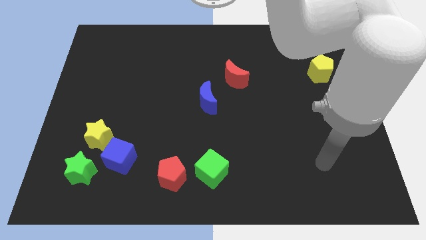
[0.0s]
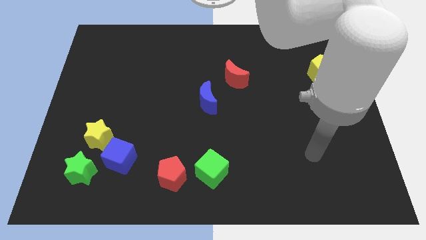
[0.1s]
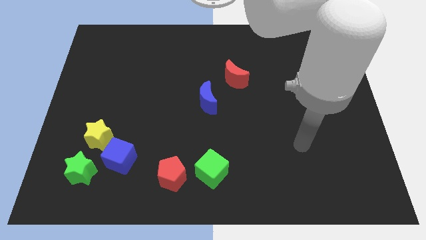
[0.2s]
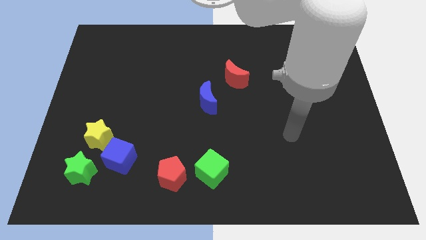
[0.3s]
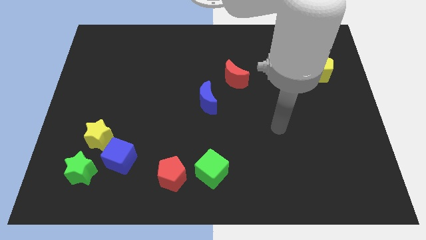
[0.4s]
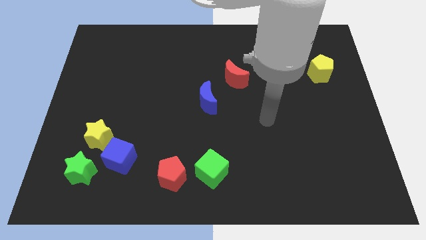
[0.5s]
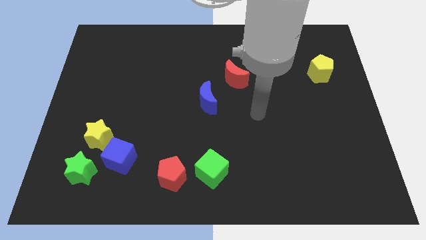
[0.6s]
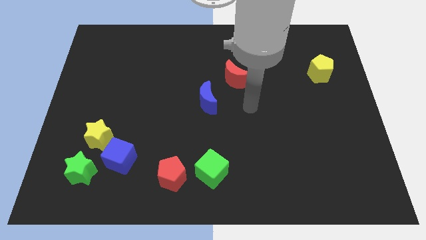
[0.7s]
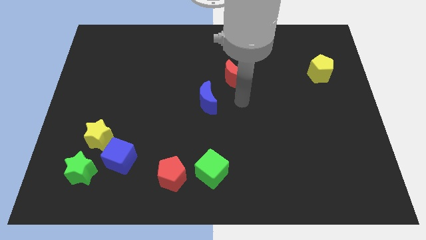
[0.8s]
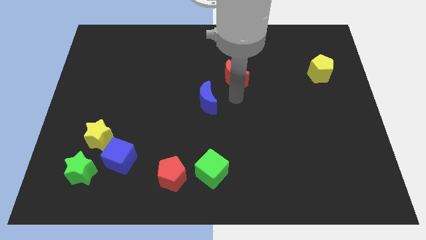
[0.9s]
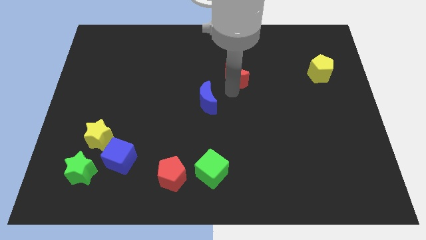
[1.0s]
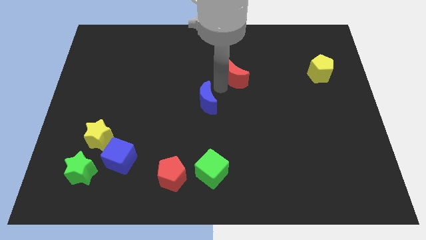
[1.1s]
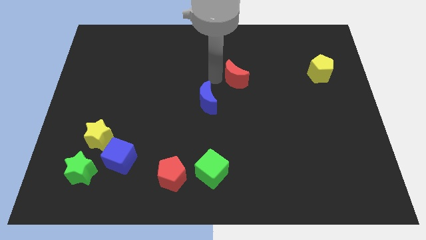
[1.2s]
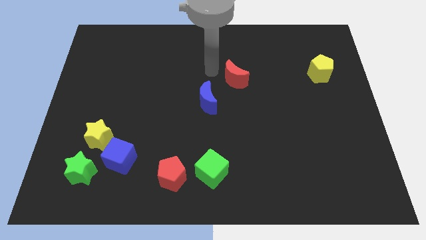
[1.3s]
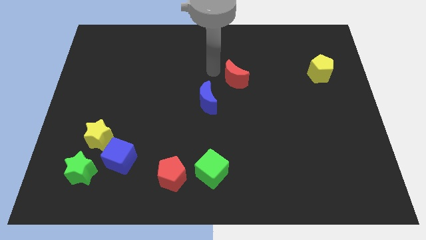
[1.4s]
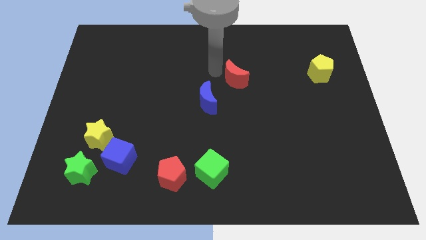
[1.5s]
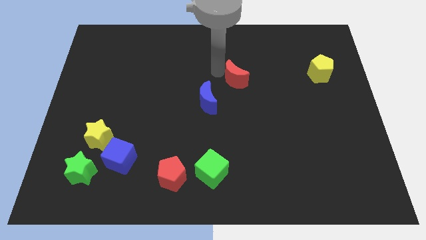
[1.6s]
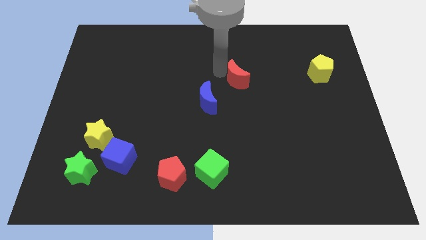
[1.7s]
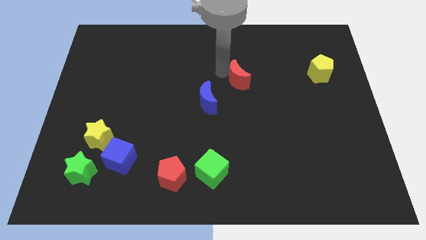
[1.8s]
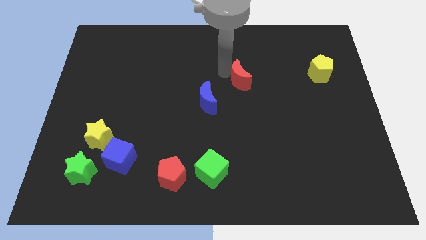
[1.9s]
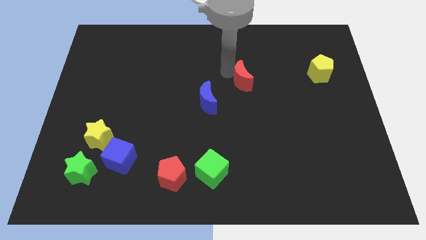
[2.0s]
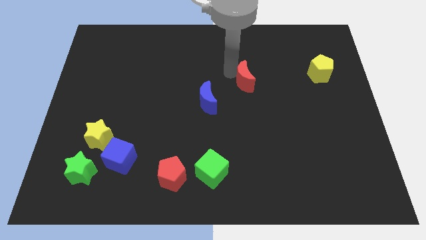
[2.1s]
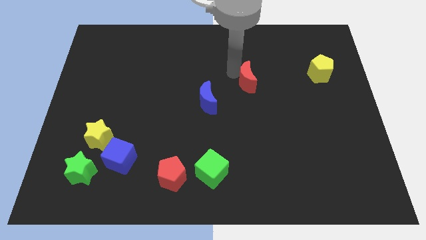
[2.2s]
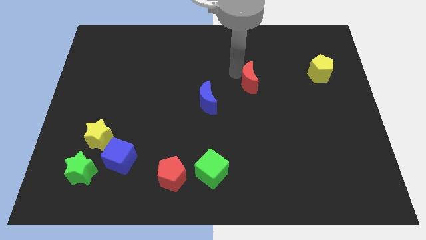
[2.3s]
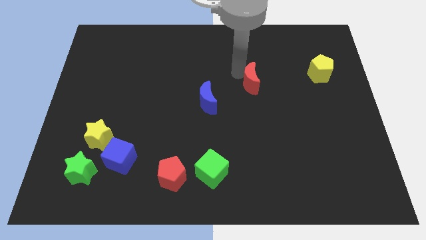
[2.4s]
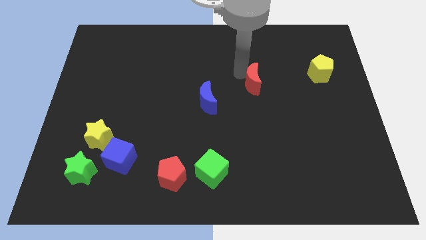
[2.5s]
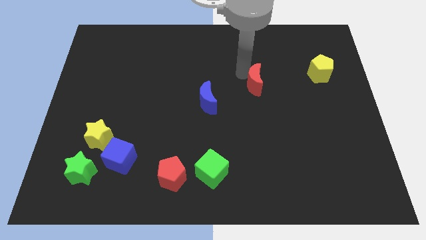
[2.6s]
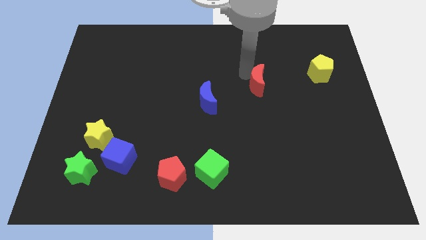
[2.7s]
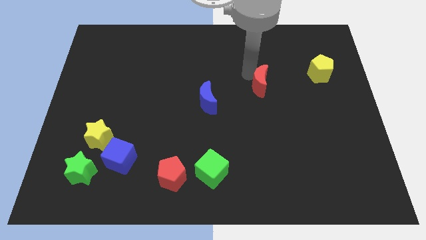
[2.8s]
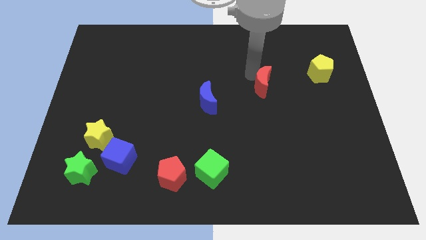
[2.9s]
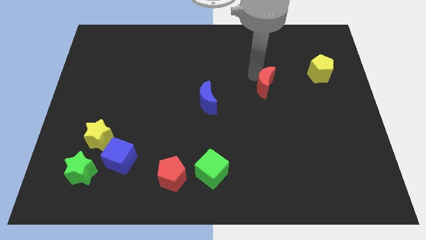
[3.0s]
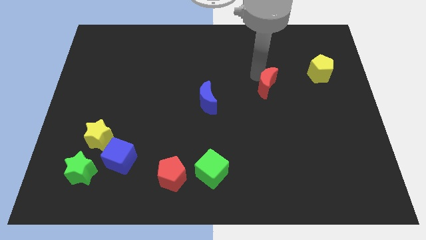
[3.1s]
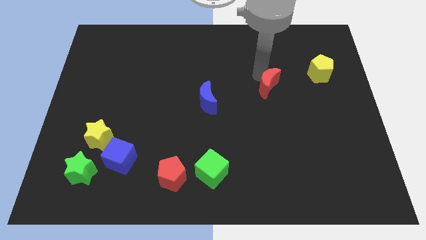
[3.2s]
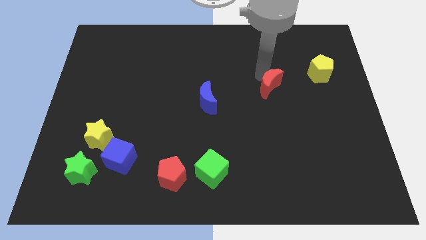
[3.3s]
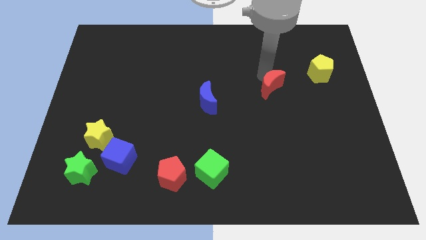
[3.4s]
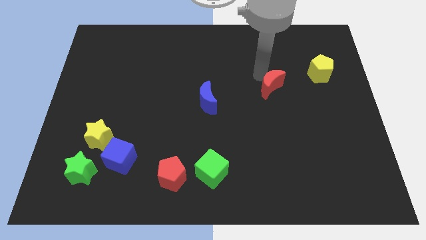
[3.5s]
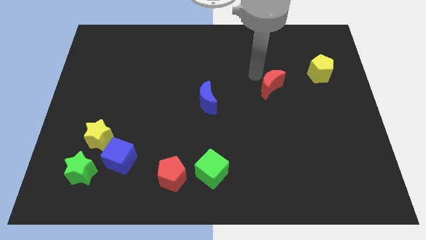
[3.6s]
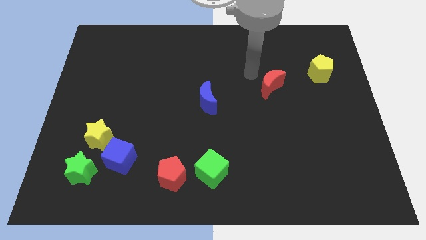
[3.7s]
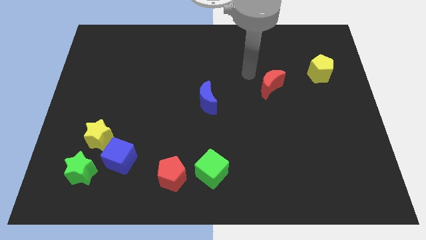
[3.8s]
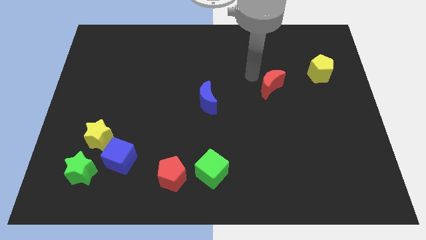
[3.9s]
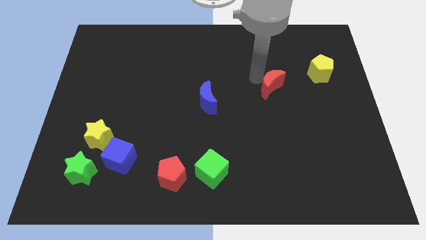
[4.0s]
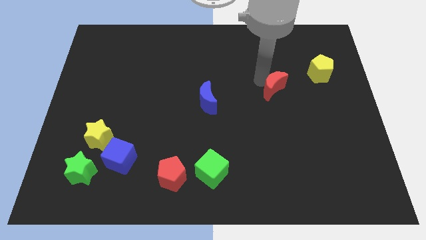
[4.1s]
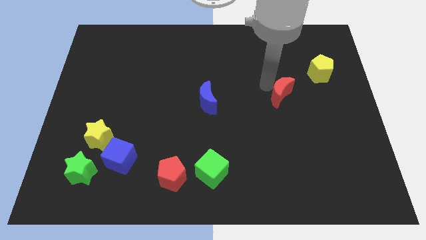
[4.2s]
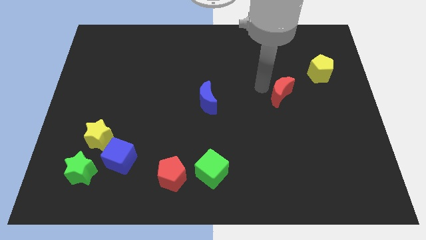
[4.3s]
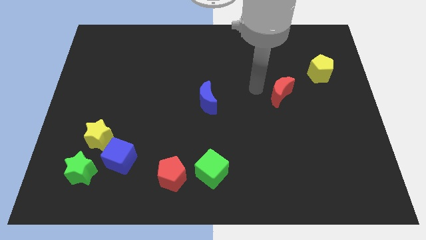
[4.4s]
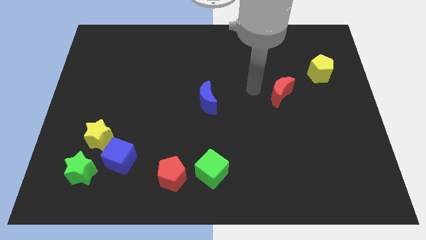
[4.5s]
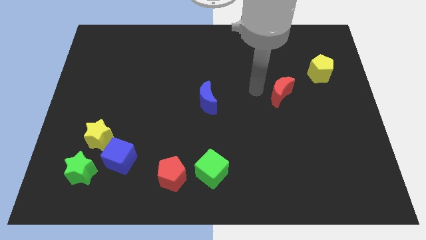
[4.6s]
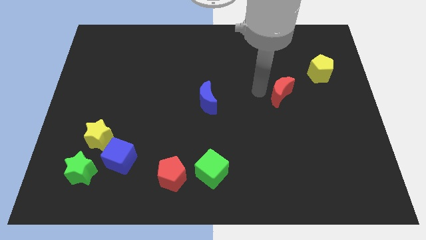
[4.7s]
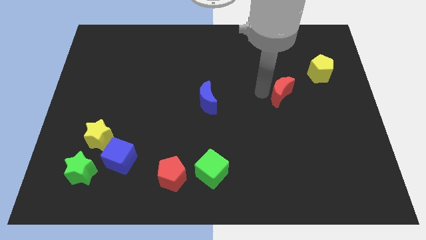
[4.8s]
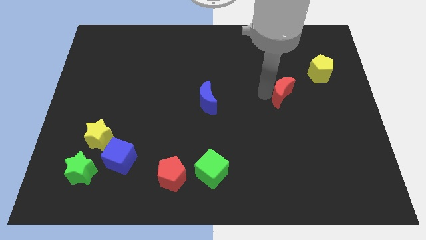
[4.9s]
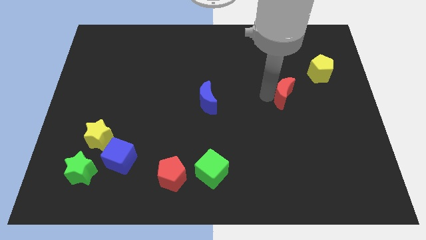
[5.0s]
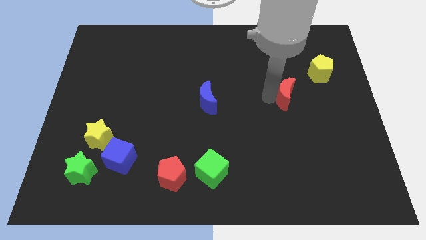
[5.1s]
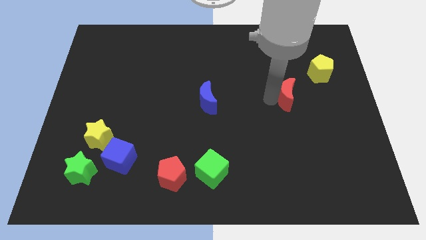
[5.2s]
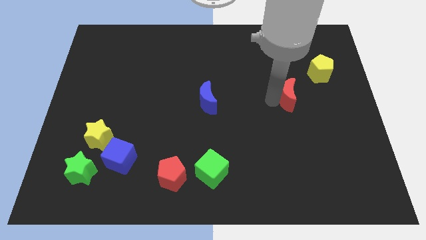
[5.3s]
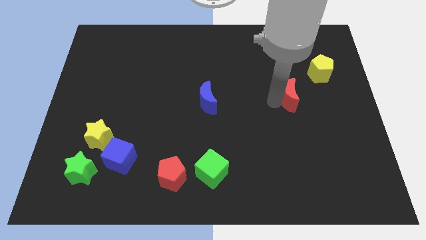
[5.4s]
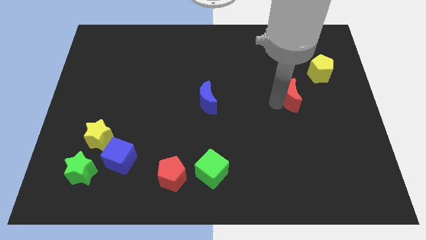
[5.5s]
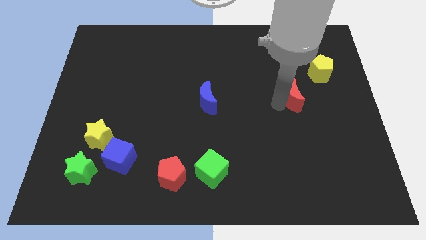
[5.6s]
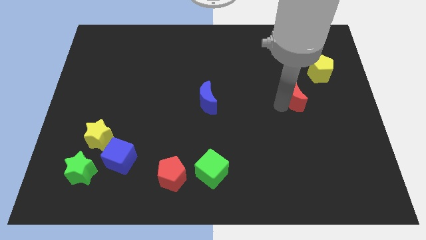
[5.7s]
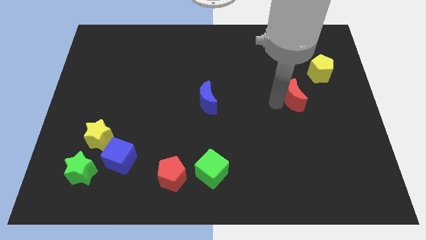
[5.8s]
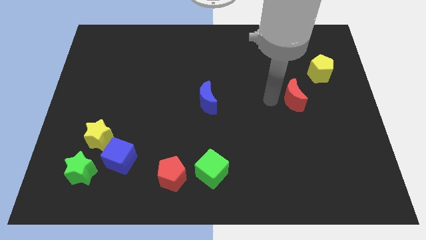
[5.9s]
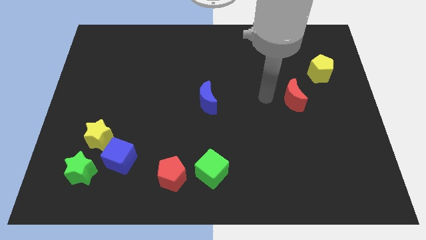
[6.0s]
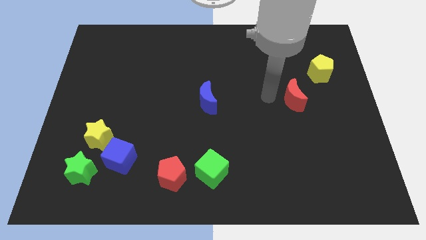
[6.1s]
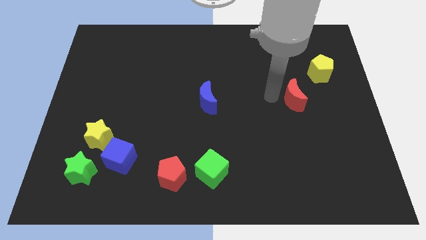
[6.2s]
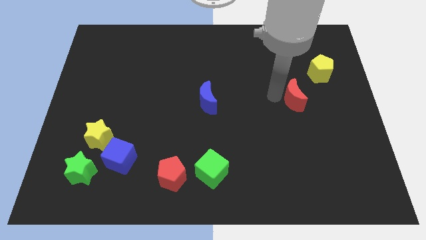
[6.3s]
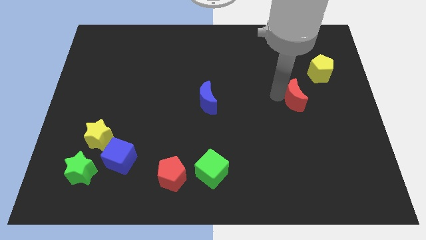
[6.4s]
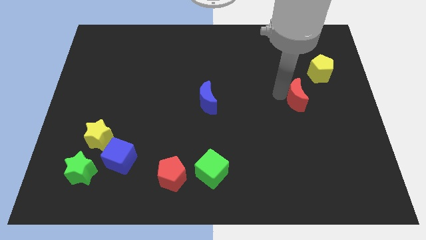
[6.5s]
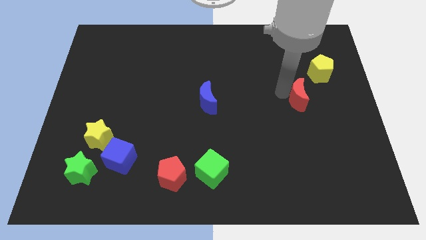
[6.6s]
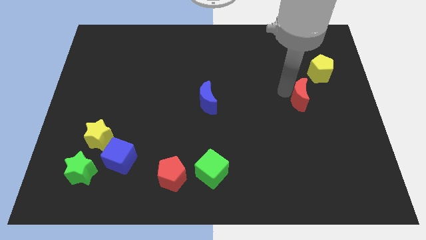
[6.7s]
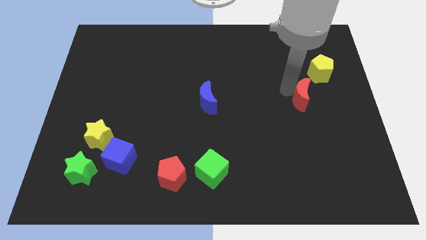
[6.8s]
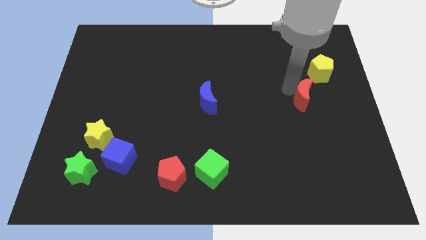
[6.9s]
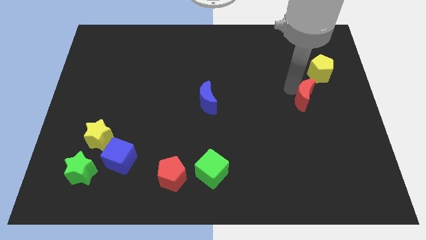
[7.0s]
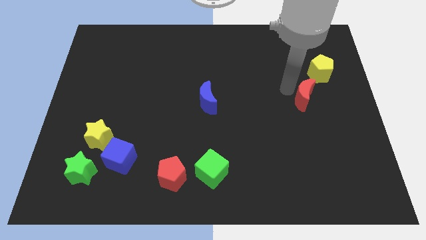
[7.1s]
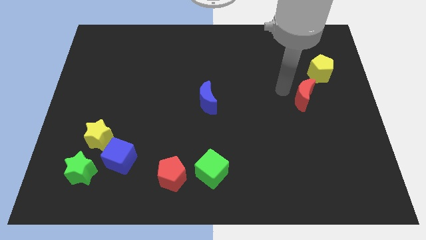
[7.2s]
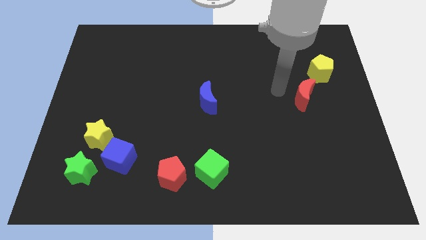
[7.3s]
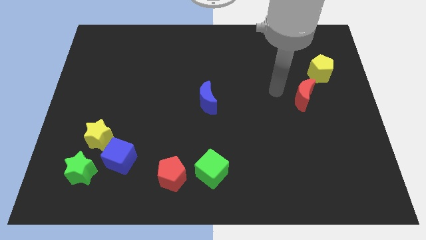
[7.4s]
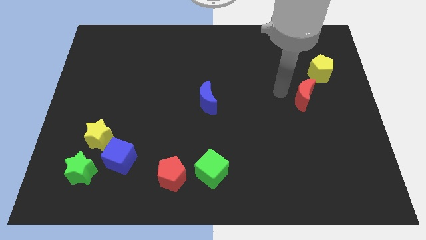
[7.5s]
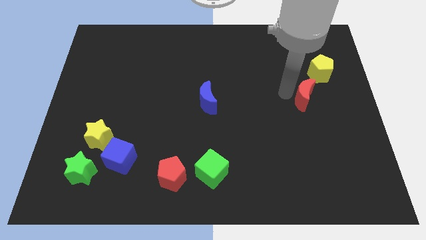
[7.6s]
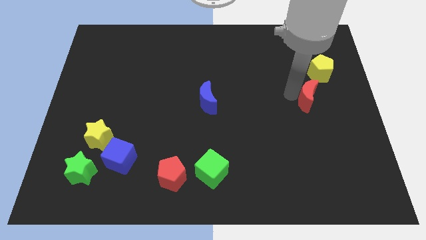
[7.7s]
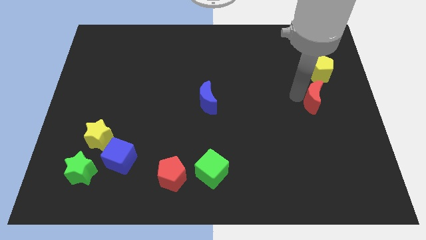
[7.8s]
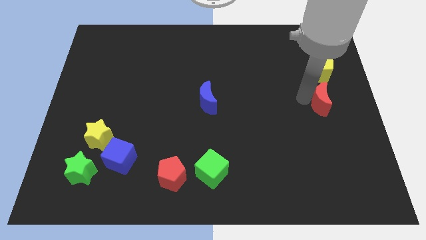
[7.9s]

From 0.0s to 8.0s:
move the red moon to the center right
